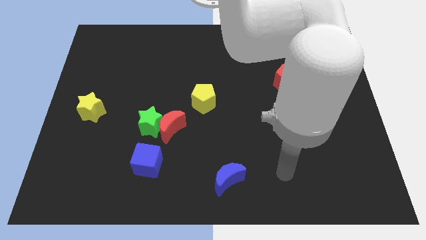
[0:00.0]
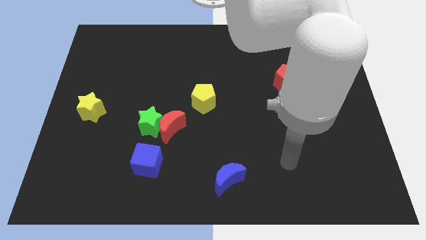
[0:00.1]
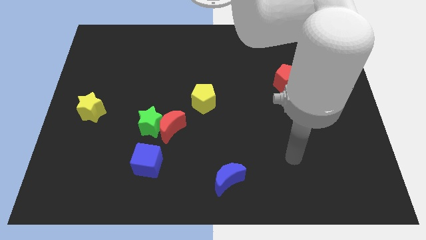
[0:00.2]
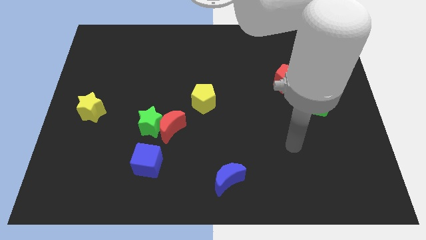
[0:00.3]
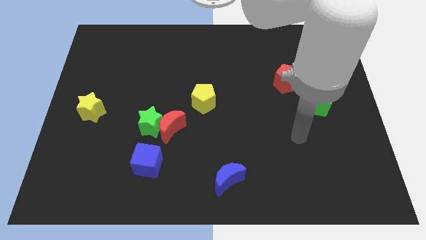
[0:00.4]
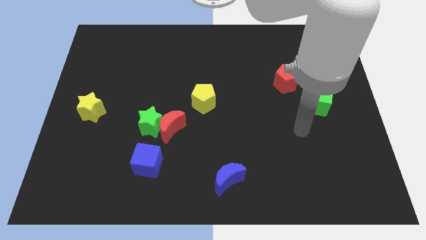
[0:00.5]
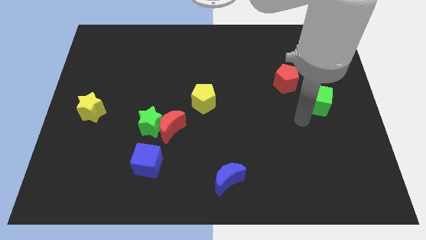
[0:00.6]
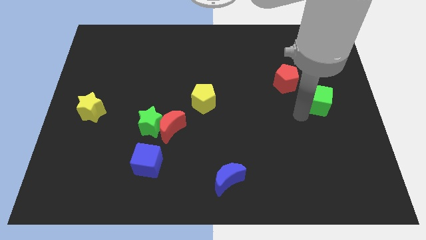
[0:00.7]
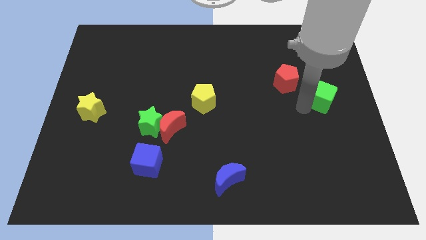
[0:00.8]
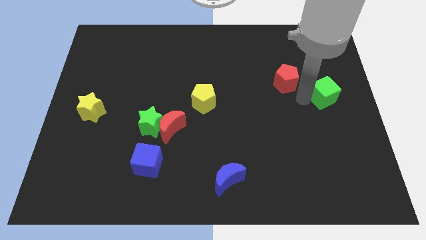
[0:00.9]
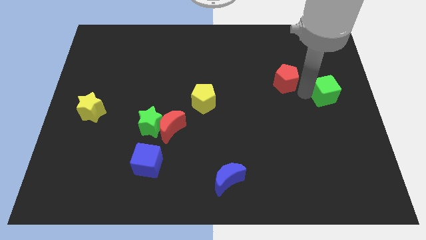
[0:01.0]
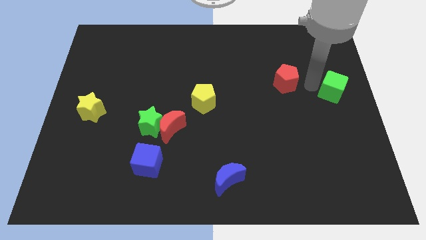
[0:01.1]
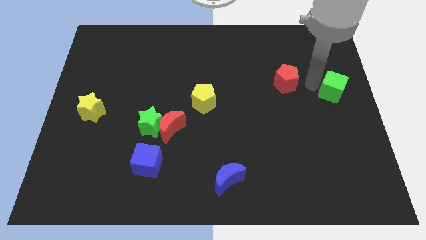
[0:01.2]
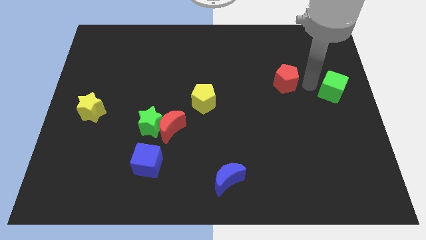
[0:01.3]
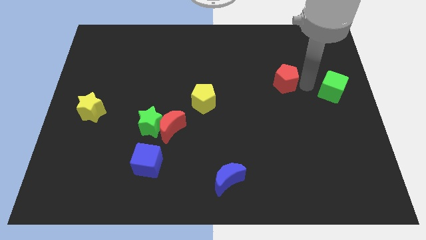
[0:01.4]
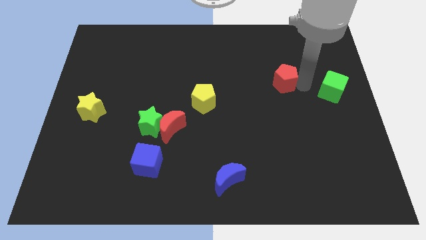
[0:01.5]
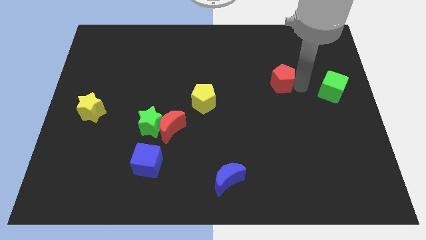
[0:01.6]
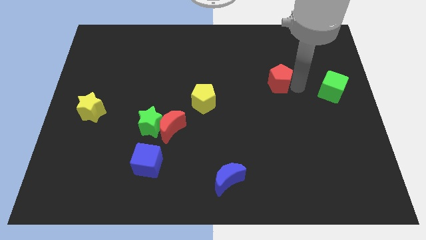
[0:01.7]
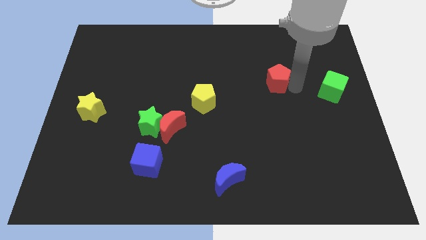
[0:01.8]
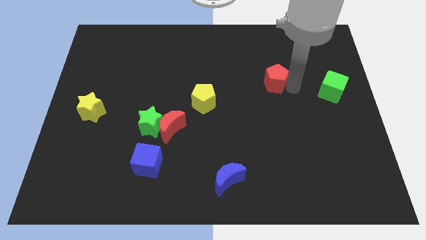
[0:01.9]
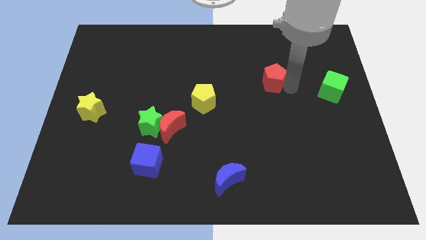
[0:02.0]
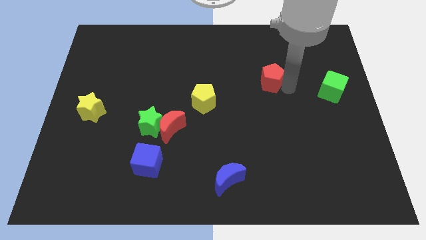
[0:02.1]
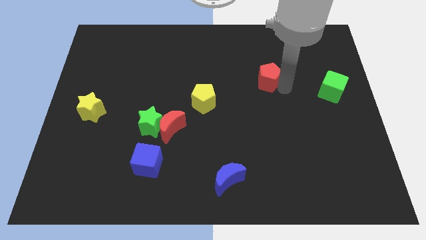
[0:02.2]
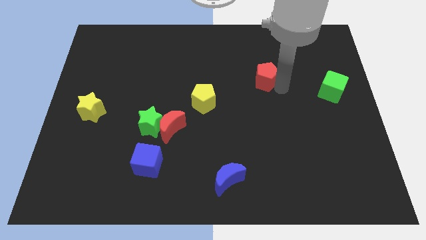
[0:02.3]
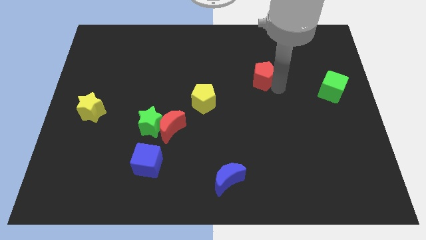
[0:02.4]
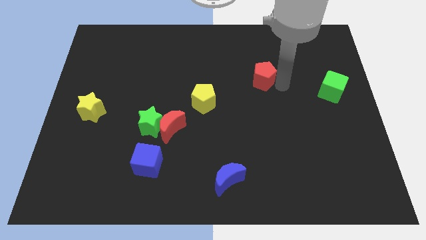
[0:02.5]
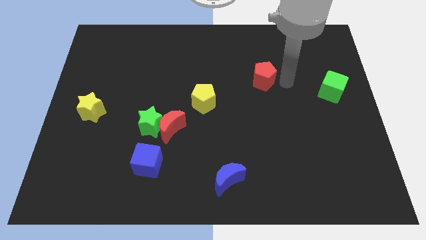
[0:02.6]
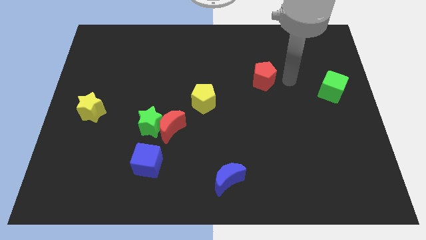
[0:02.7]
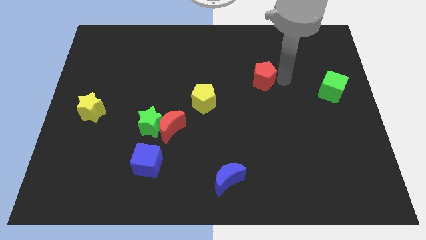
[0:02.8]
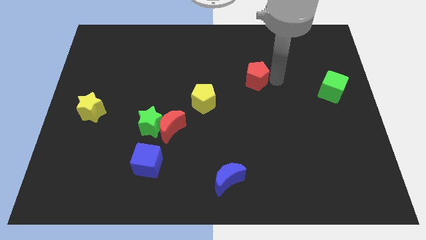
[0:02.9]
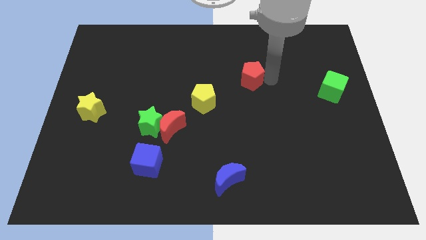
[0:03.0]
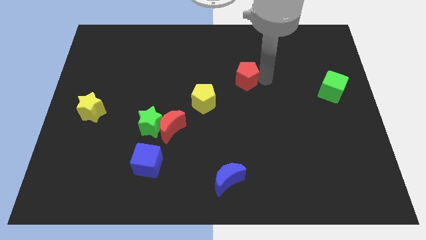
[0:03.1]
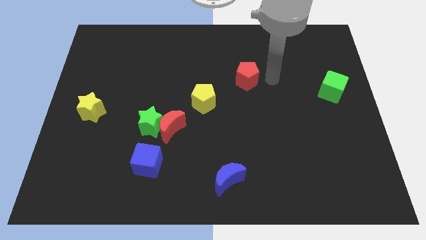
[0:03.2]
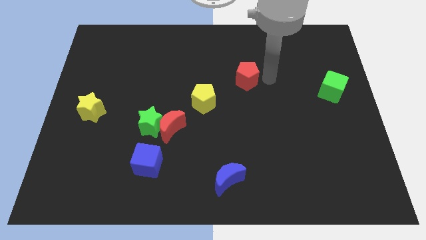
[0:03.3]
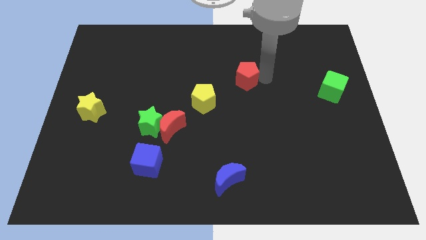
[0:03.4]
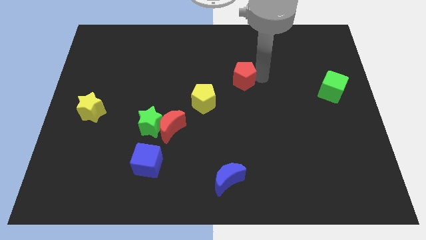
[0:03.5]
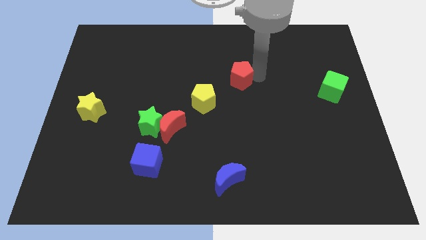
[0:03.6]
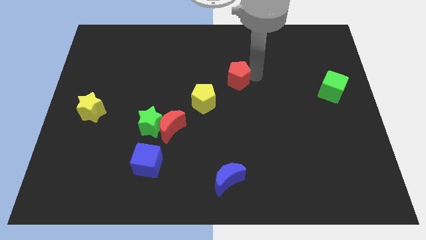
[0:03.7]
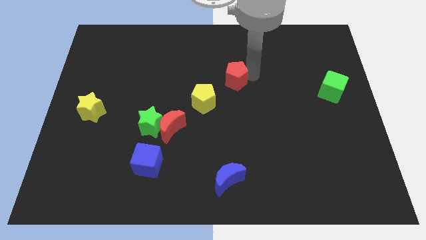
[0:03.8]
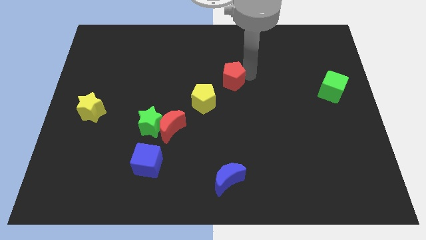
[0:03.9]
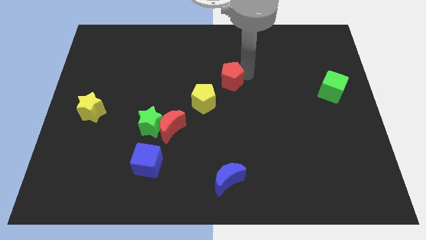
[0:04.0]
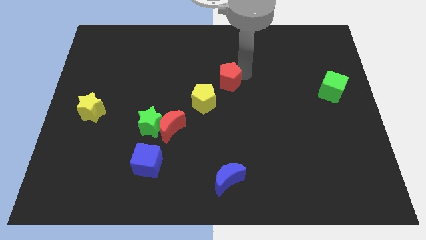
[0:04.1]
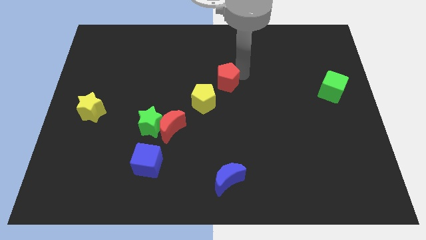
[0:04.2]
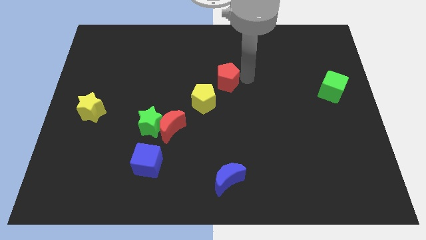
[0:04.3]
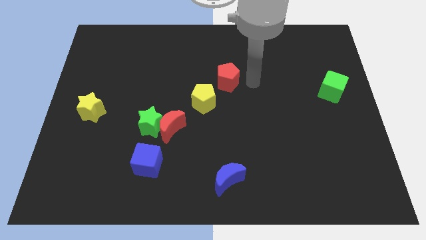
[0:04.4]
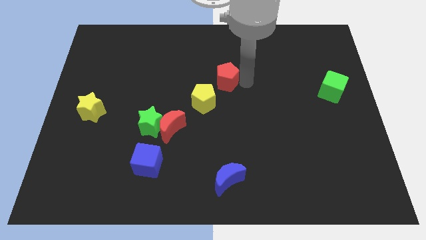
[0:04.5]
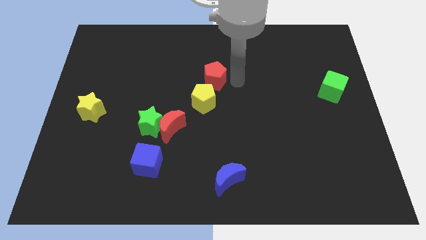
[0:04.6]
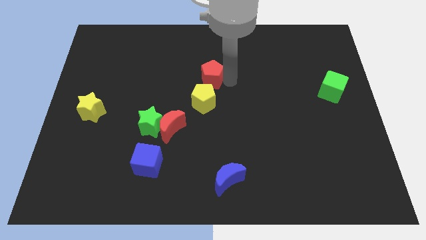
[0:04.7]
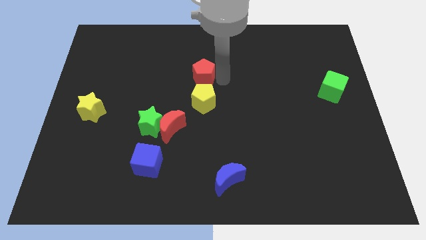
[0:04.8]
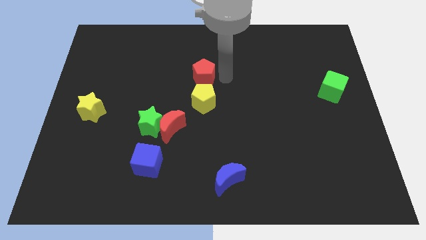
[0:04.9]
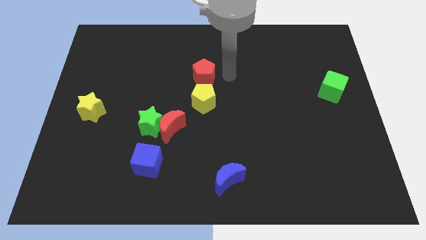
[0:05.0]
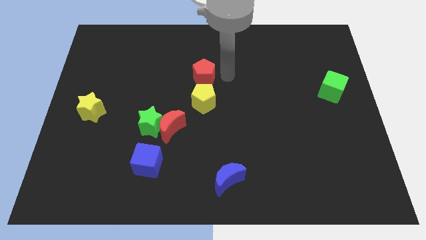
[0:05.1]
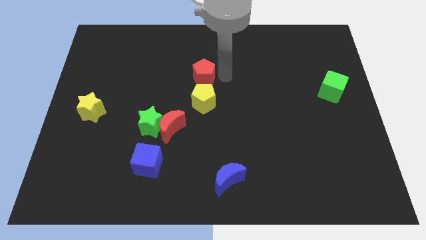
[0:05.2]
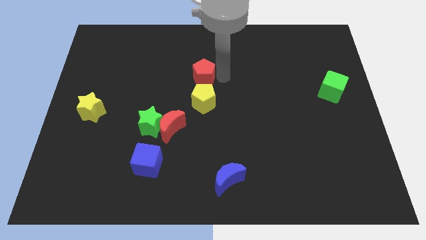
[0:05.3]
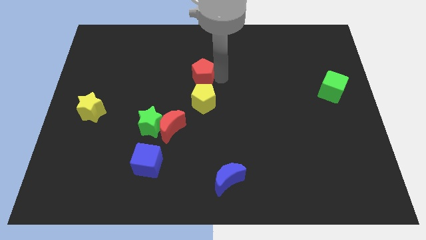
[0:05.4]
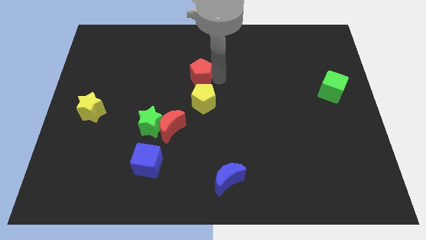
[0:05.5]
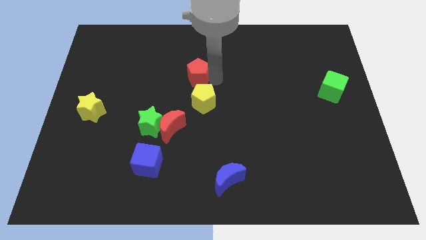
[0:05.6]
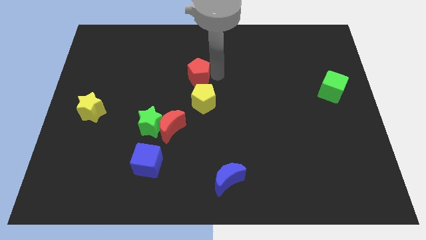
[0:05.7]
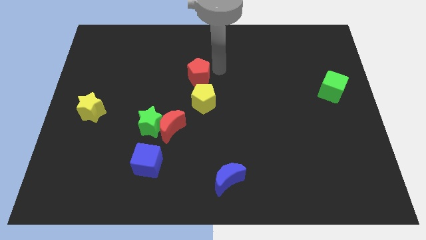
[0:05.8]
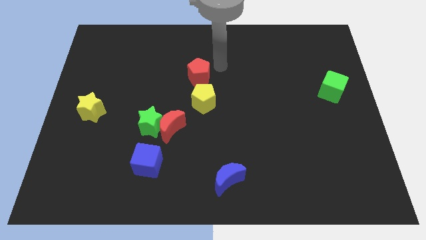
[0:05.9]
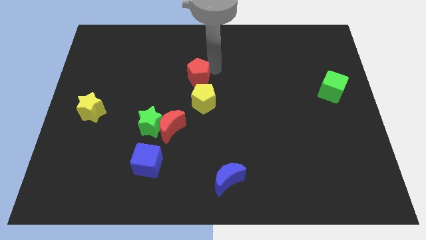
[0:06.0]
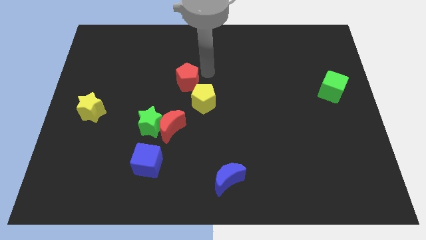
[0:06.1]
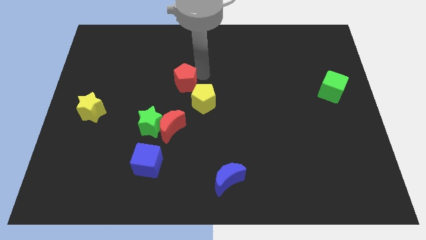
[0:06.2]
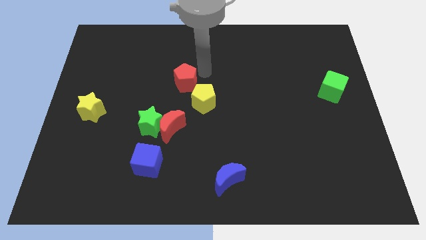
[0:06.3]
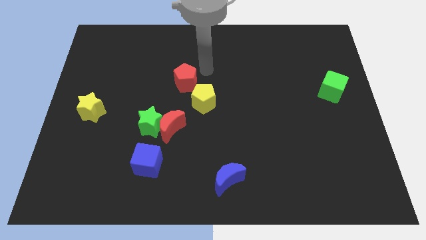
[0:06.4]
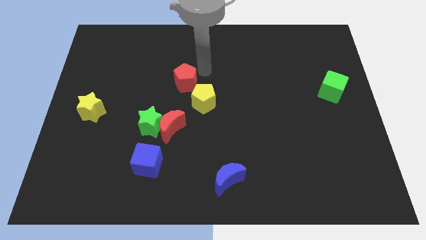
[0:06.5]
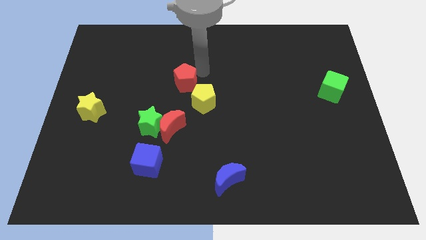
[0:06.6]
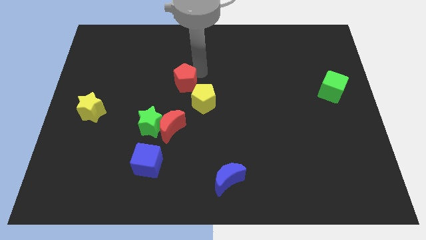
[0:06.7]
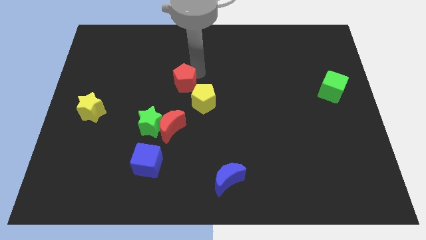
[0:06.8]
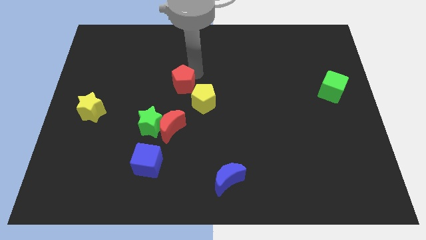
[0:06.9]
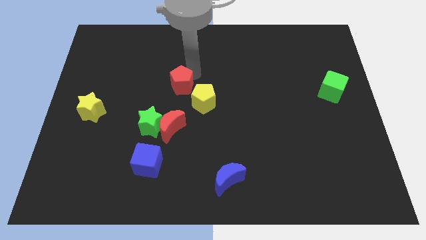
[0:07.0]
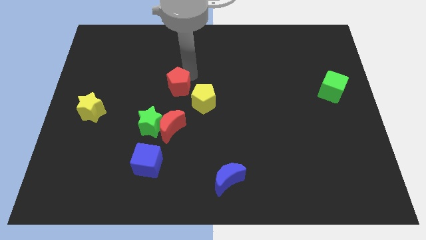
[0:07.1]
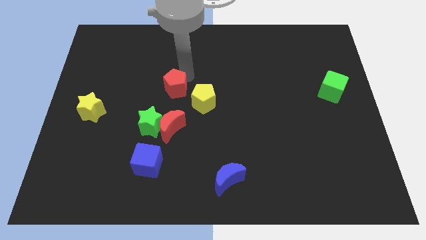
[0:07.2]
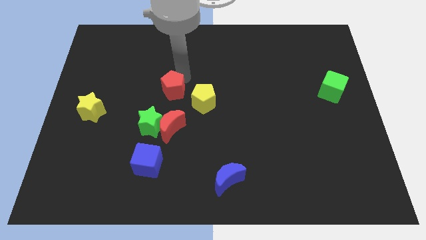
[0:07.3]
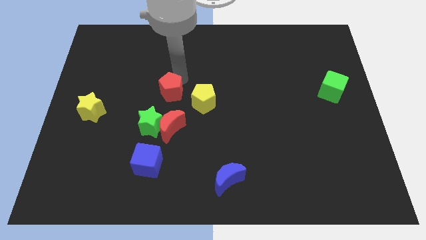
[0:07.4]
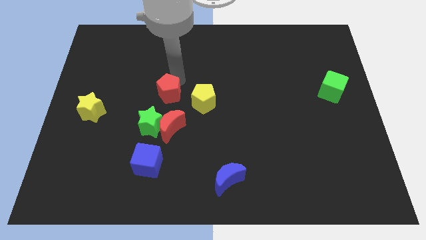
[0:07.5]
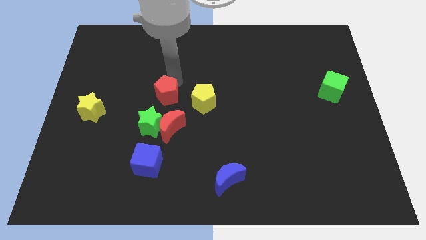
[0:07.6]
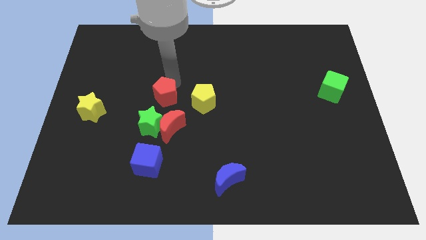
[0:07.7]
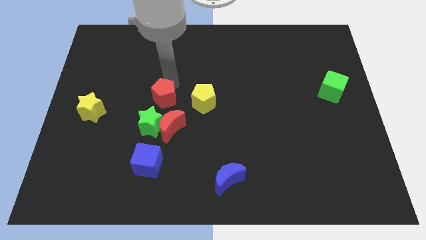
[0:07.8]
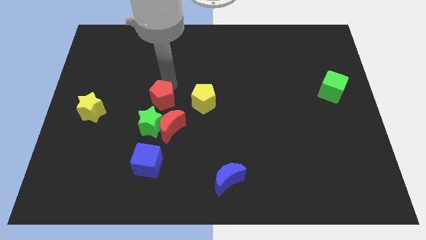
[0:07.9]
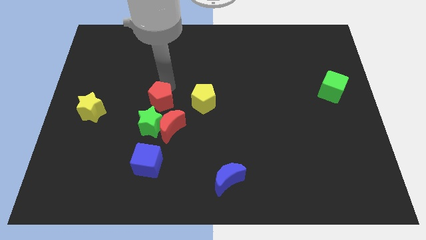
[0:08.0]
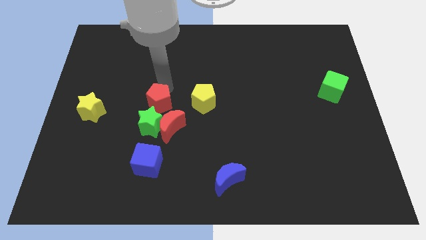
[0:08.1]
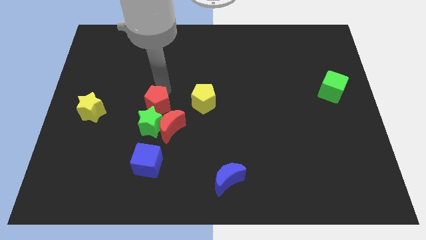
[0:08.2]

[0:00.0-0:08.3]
put the red pentagon to the top side of the blue cube

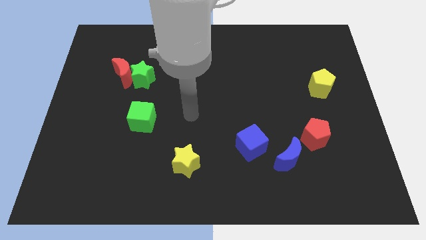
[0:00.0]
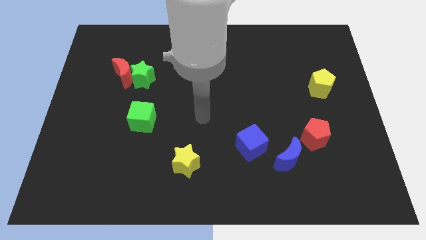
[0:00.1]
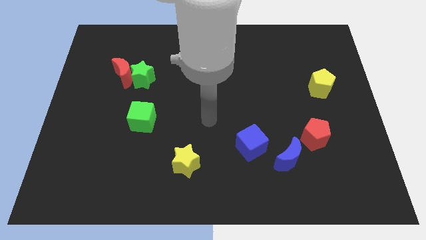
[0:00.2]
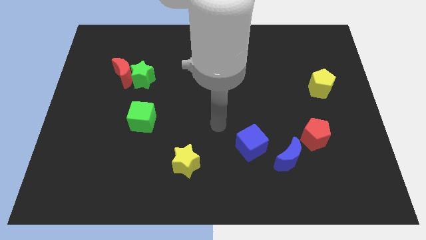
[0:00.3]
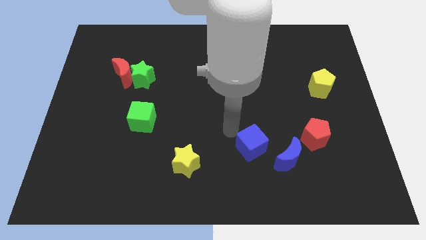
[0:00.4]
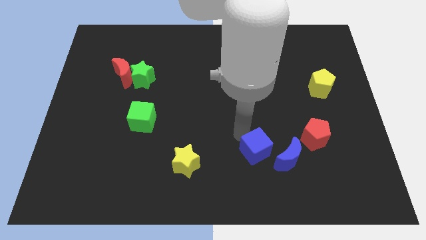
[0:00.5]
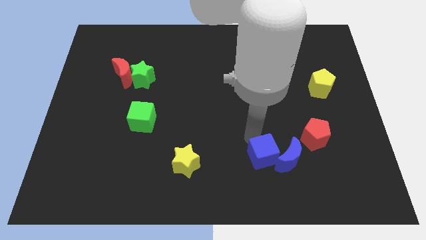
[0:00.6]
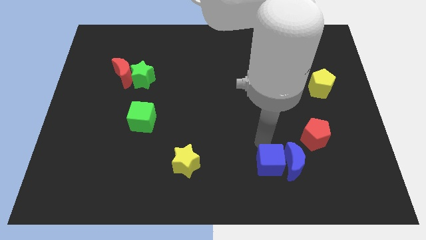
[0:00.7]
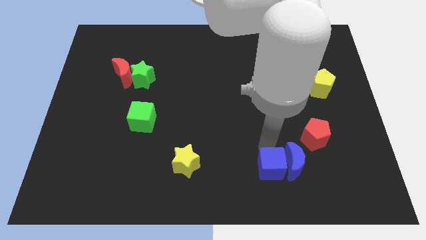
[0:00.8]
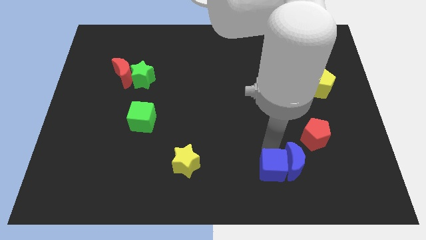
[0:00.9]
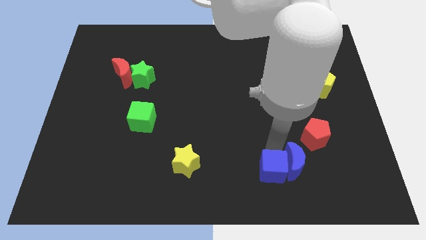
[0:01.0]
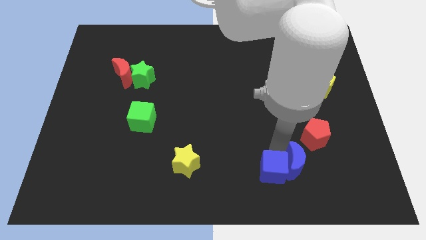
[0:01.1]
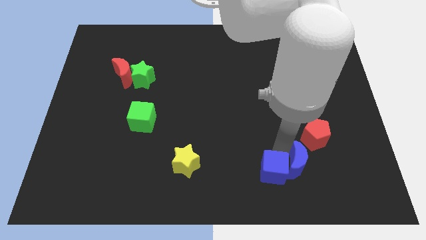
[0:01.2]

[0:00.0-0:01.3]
push the blue moon to the bottom of the red pentagon
